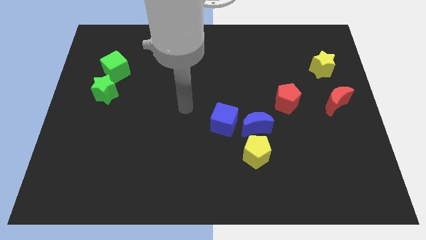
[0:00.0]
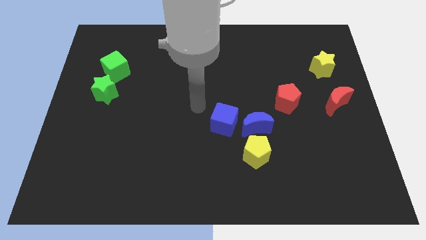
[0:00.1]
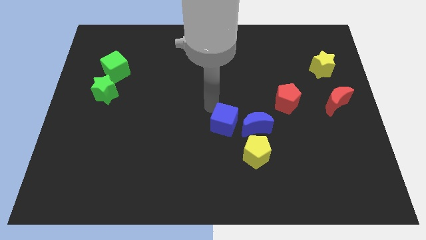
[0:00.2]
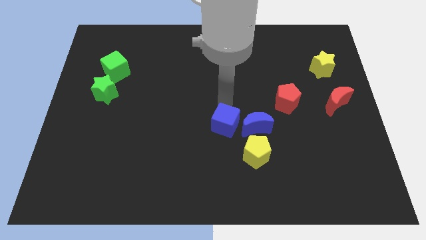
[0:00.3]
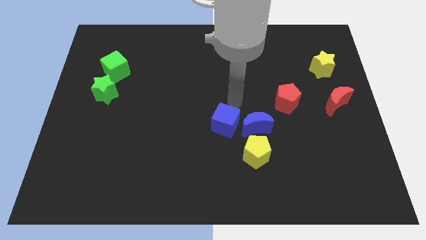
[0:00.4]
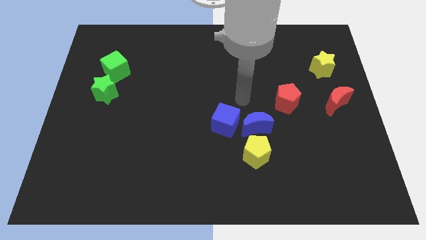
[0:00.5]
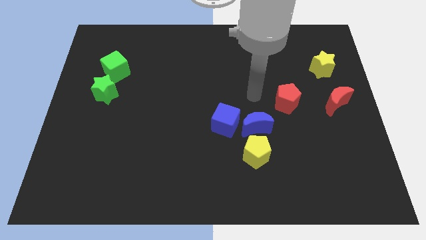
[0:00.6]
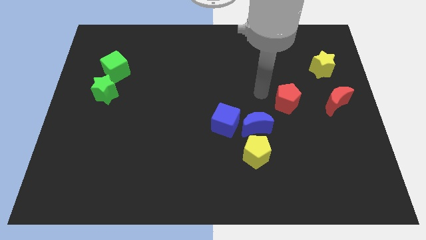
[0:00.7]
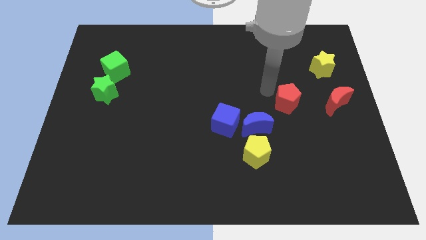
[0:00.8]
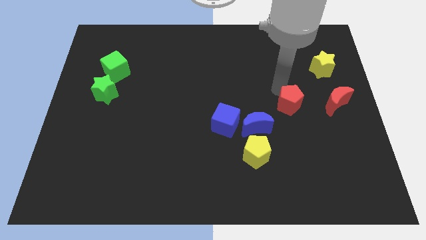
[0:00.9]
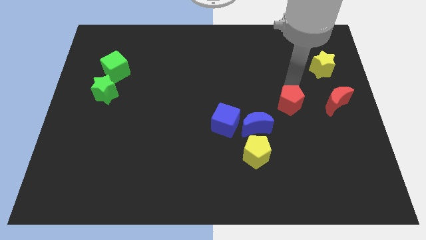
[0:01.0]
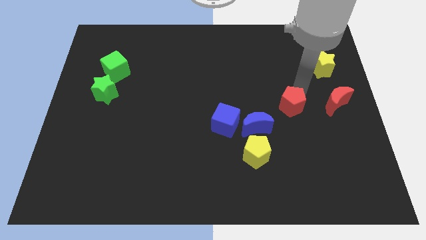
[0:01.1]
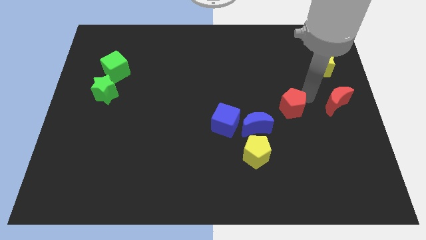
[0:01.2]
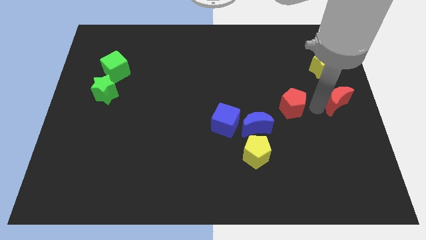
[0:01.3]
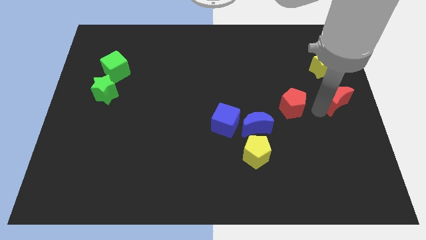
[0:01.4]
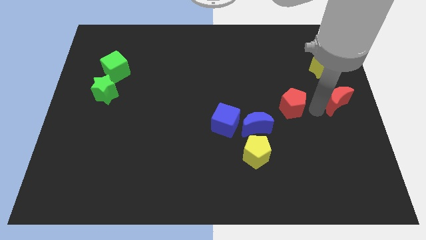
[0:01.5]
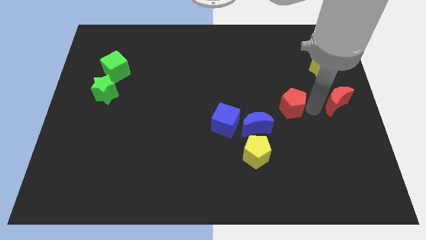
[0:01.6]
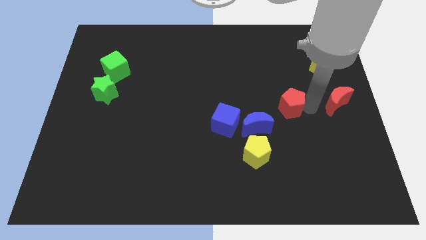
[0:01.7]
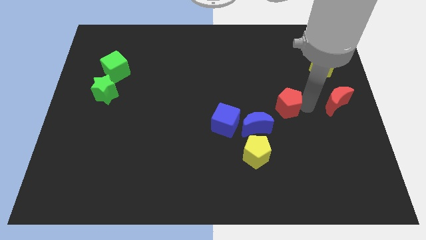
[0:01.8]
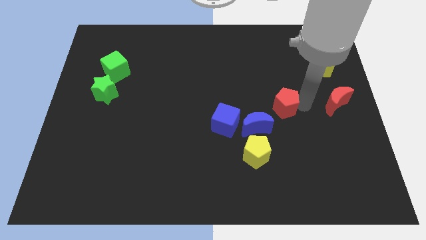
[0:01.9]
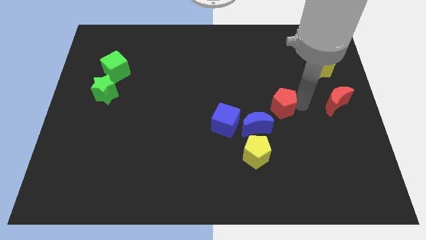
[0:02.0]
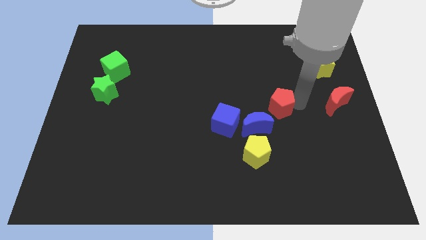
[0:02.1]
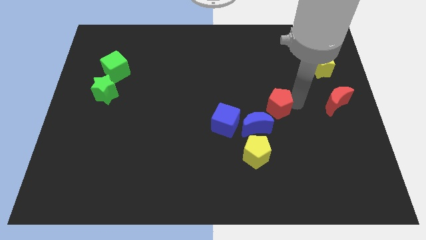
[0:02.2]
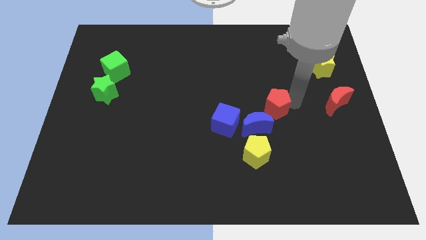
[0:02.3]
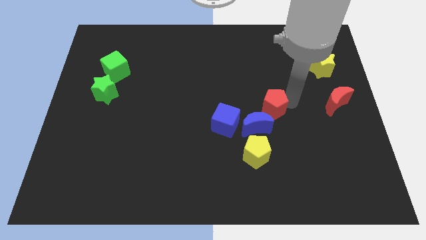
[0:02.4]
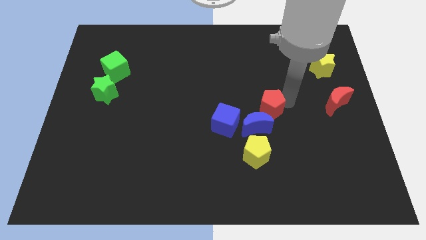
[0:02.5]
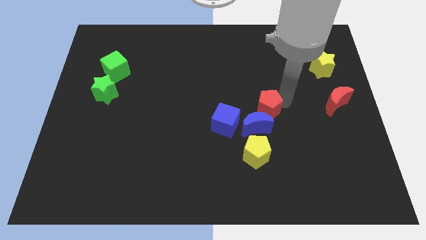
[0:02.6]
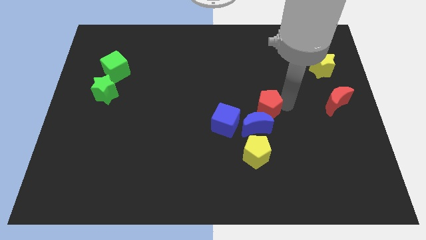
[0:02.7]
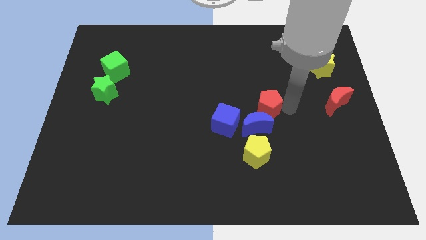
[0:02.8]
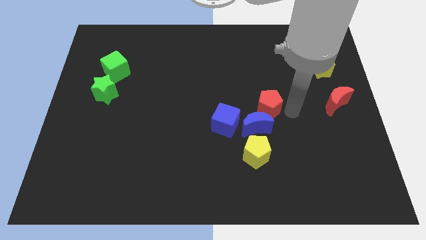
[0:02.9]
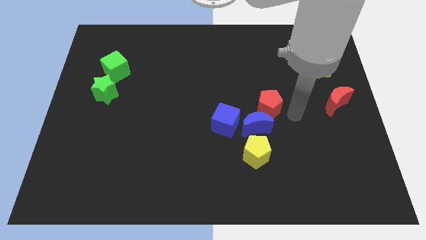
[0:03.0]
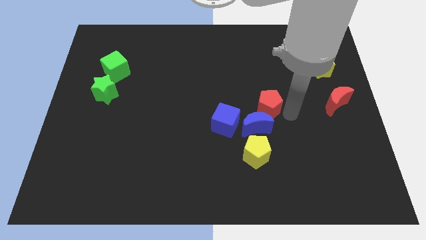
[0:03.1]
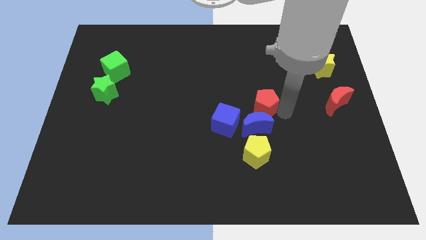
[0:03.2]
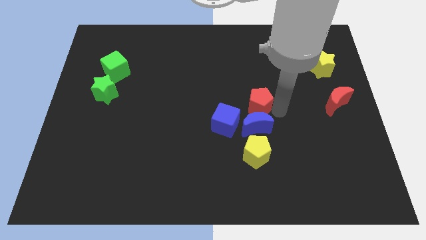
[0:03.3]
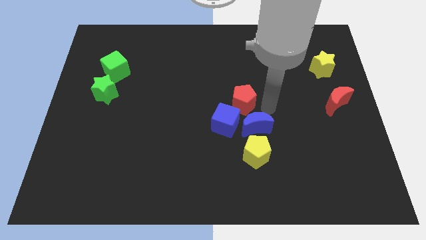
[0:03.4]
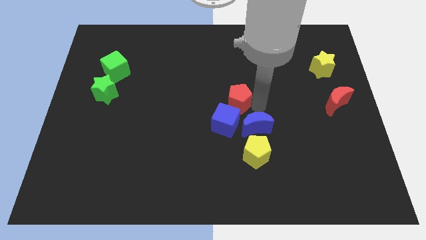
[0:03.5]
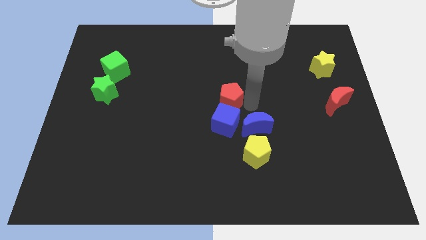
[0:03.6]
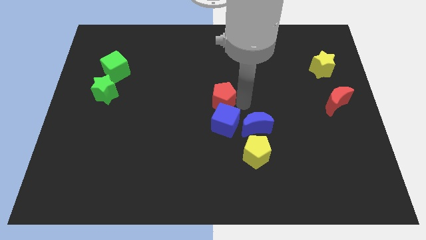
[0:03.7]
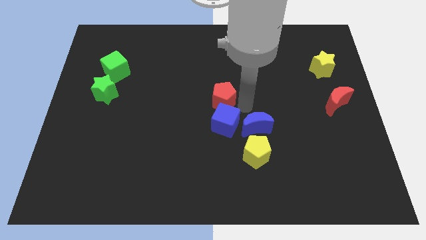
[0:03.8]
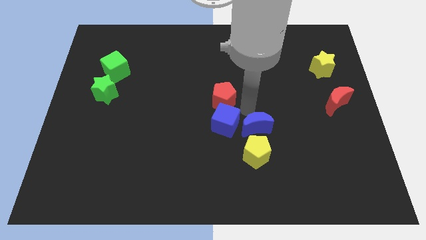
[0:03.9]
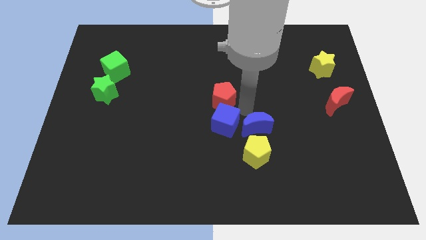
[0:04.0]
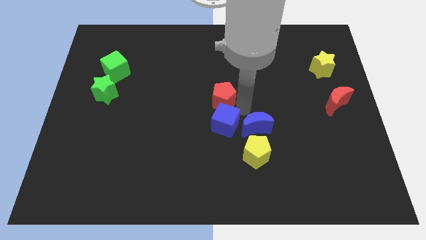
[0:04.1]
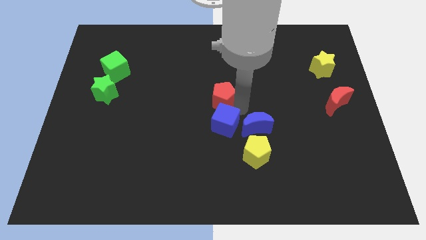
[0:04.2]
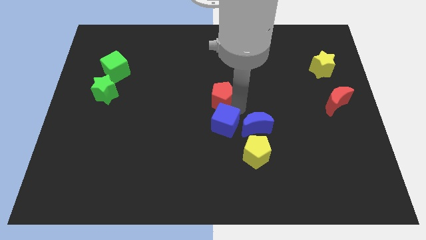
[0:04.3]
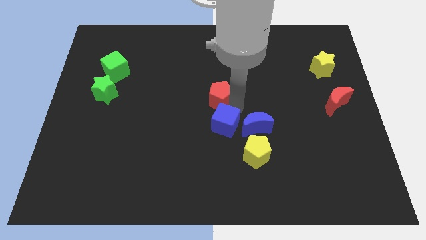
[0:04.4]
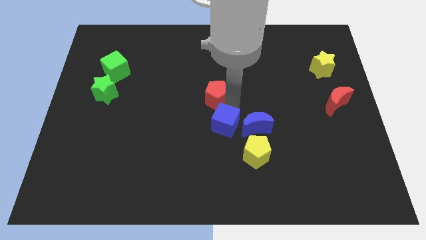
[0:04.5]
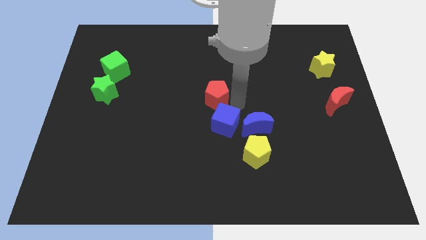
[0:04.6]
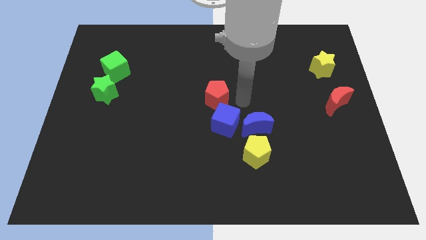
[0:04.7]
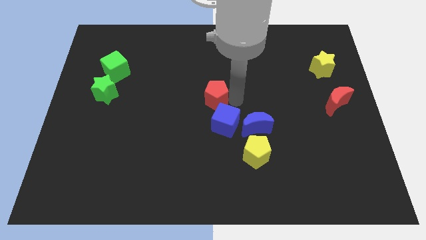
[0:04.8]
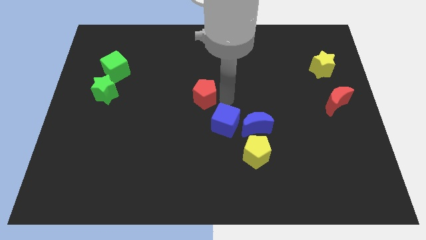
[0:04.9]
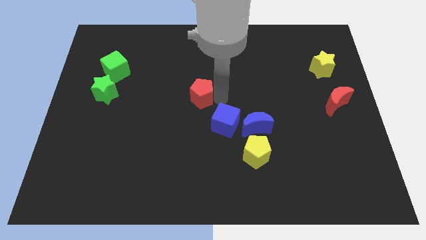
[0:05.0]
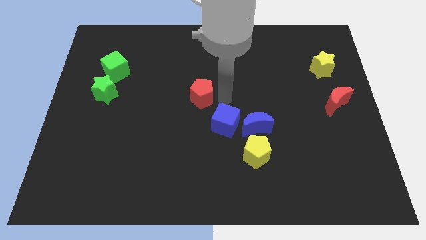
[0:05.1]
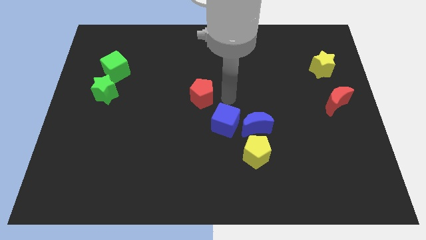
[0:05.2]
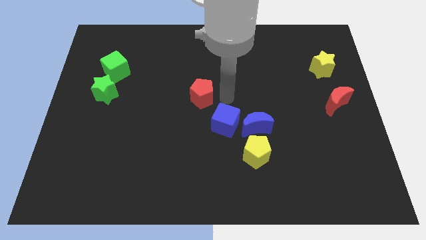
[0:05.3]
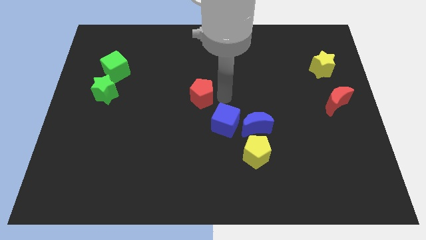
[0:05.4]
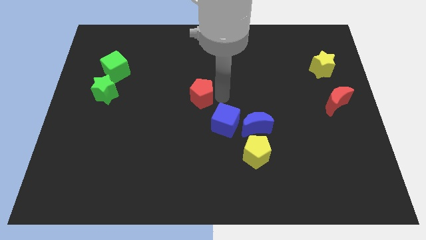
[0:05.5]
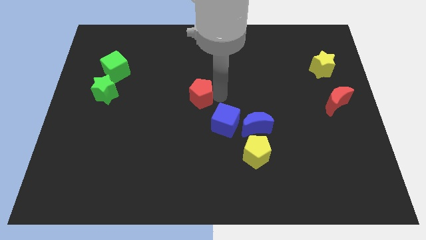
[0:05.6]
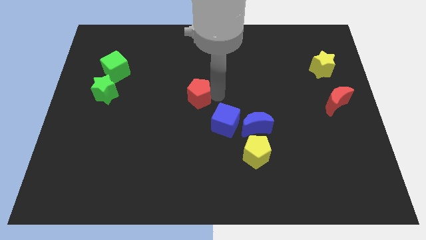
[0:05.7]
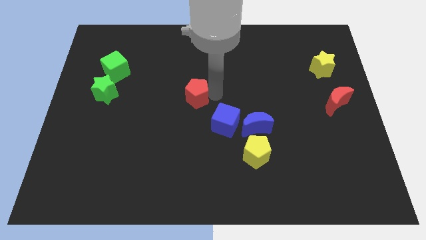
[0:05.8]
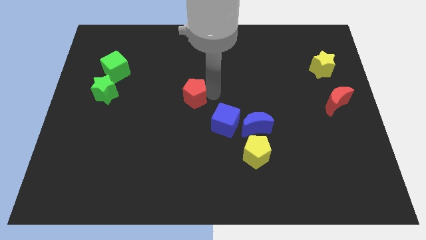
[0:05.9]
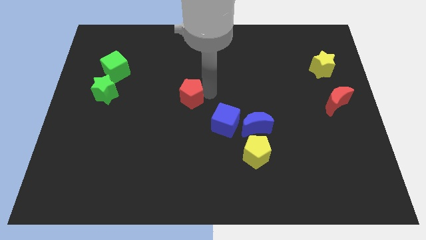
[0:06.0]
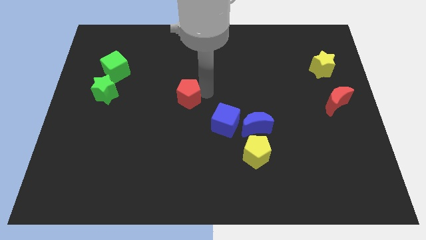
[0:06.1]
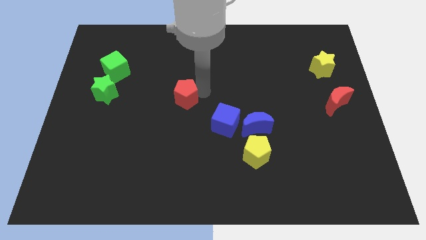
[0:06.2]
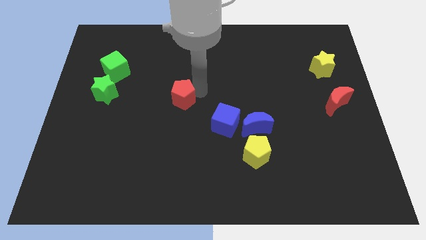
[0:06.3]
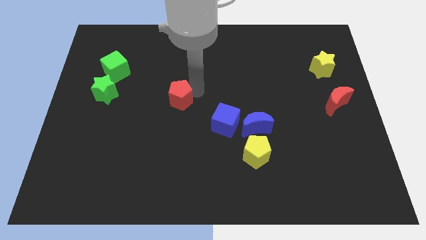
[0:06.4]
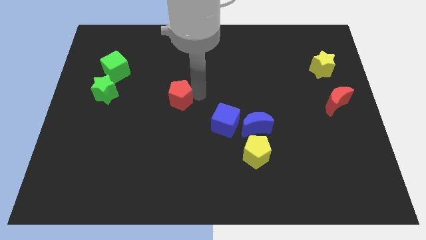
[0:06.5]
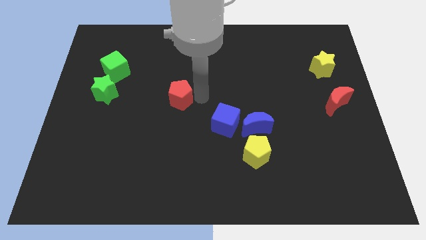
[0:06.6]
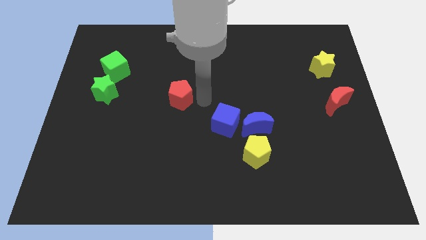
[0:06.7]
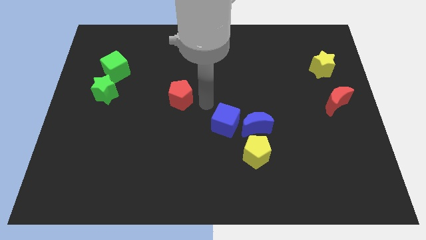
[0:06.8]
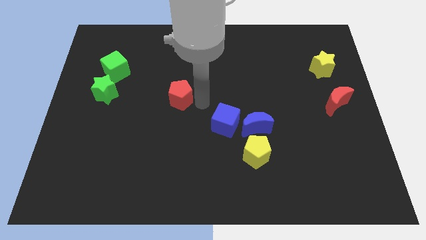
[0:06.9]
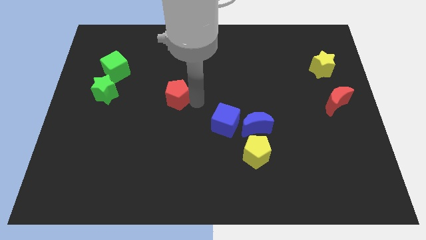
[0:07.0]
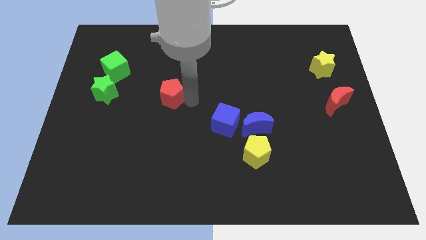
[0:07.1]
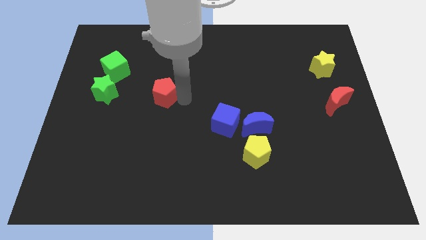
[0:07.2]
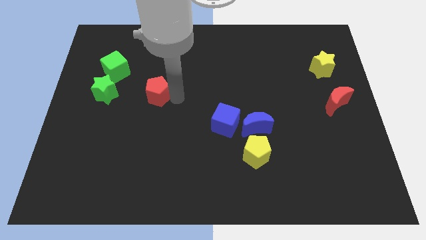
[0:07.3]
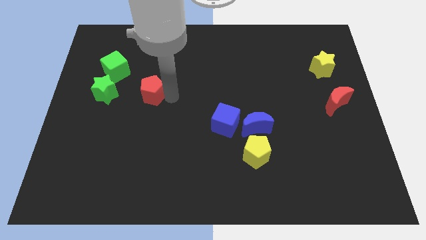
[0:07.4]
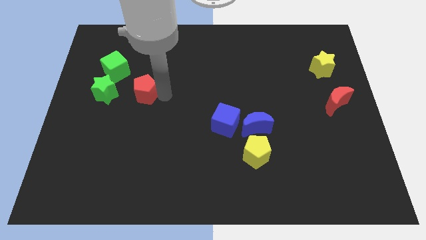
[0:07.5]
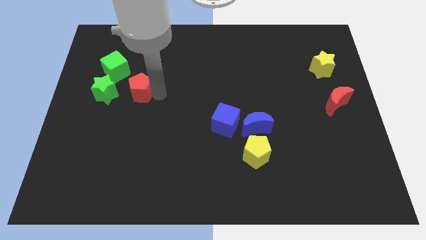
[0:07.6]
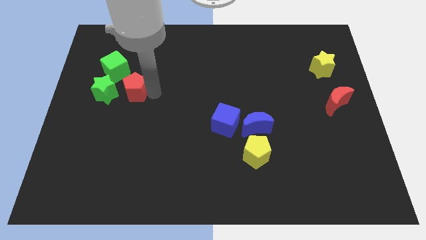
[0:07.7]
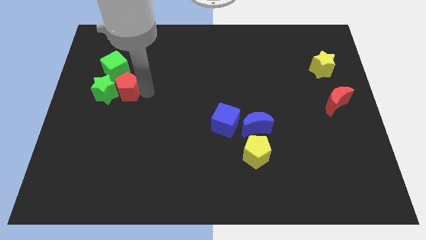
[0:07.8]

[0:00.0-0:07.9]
push the red pentagon to the green star
